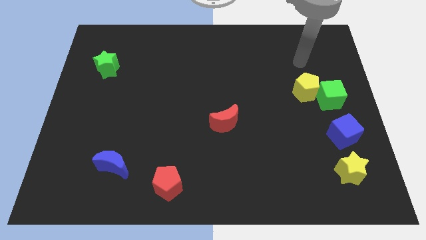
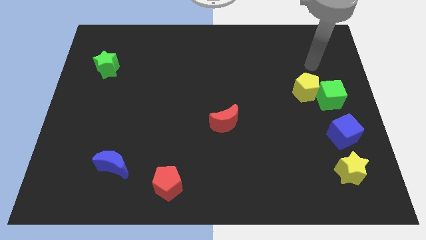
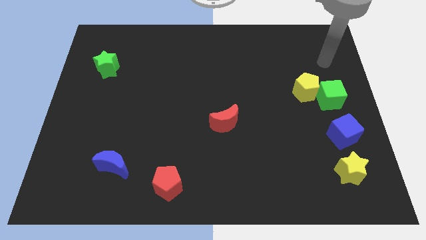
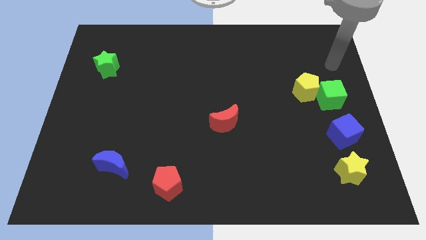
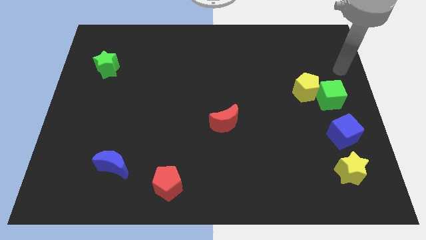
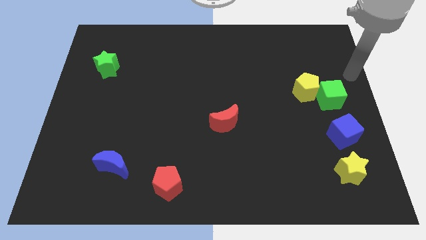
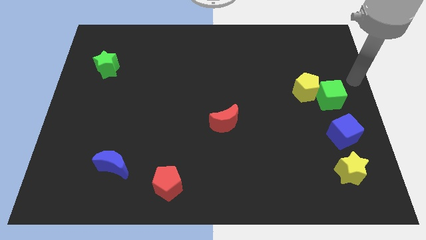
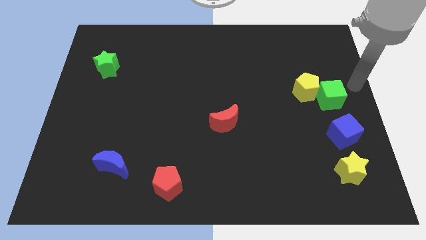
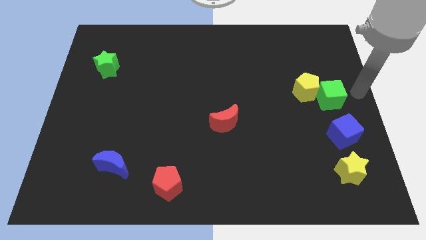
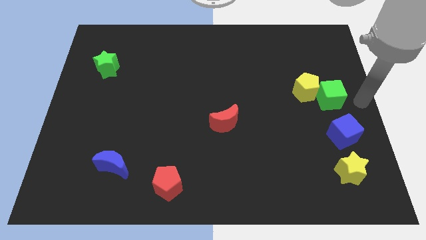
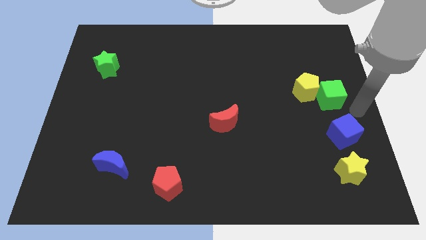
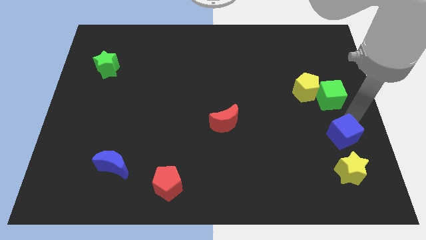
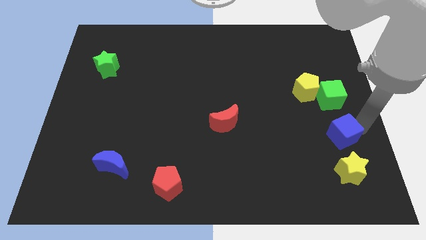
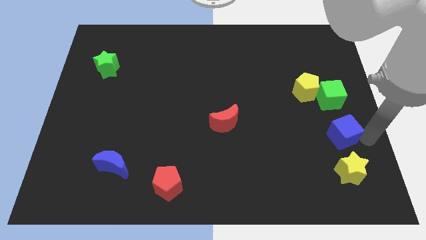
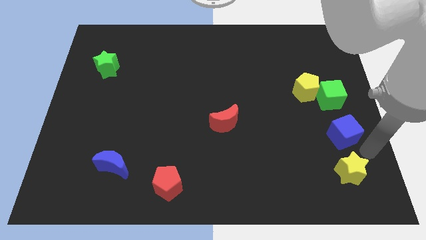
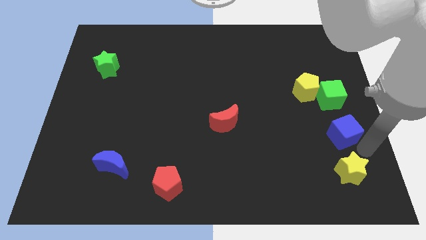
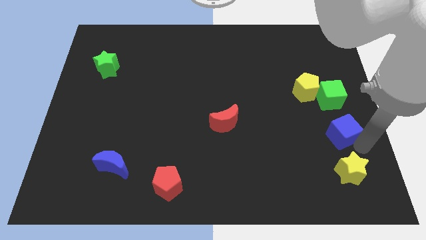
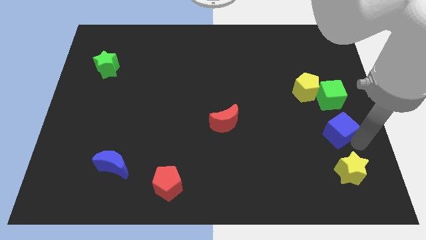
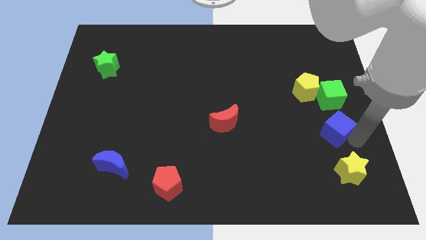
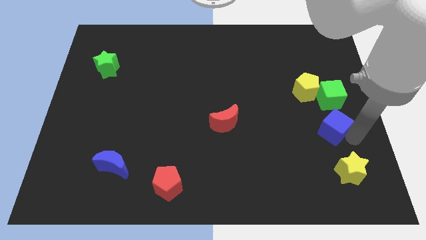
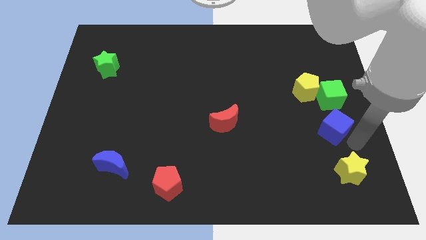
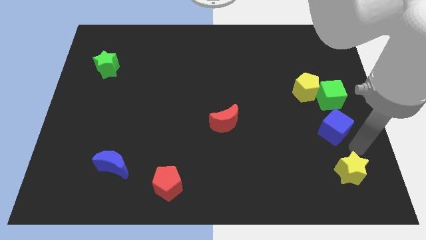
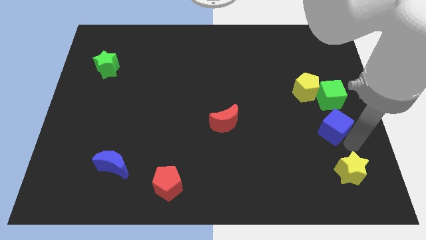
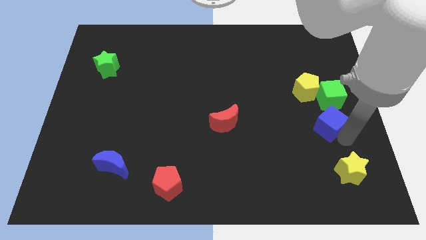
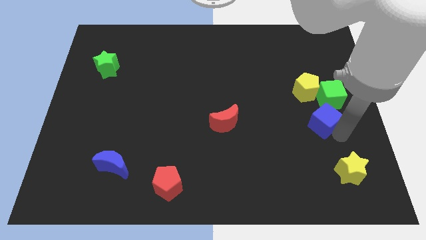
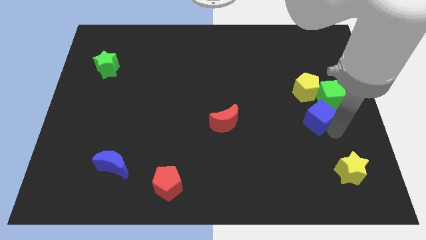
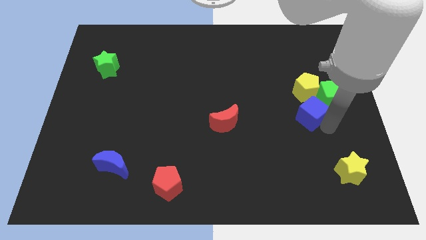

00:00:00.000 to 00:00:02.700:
slightly move the blue cube upwards and then to the left

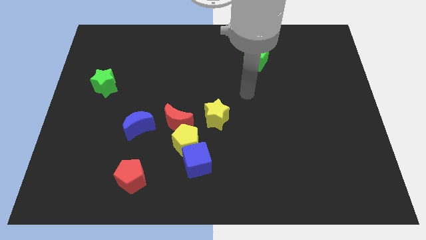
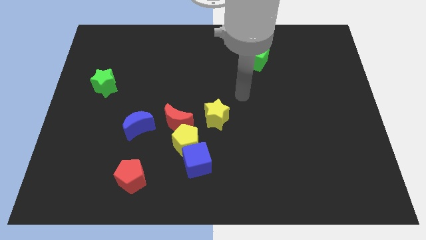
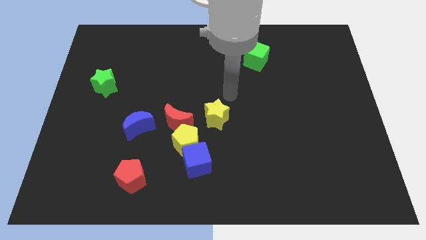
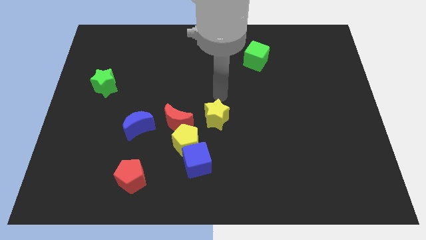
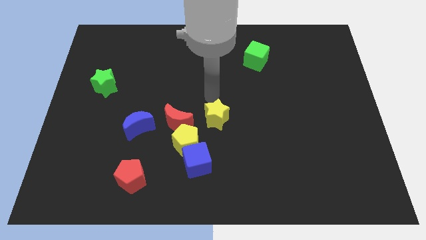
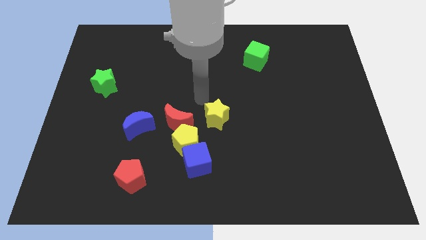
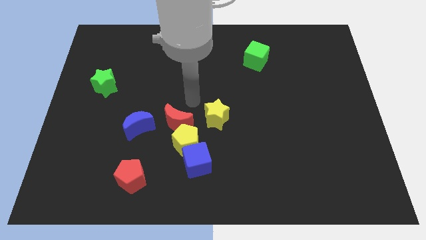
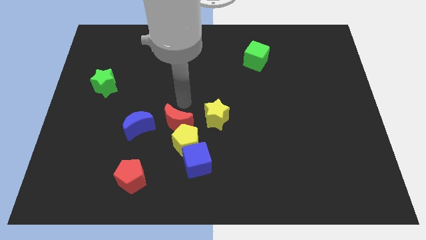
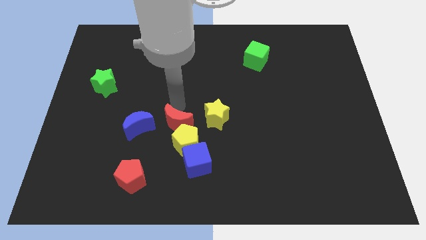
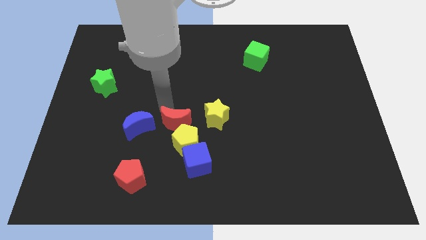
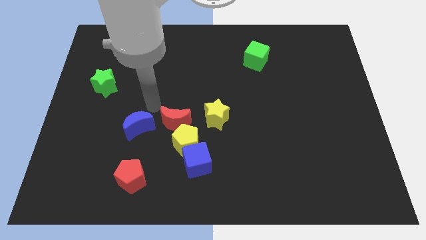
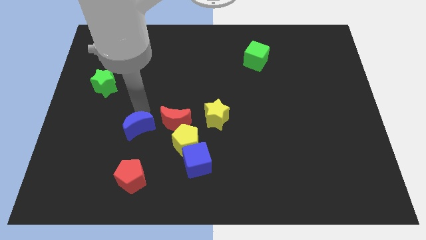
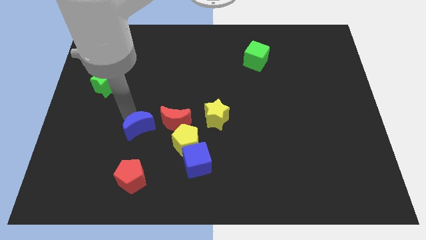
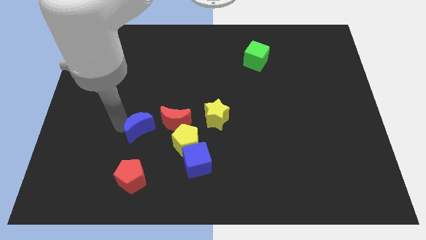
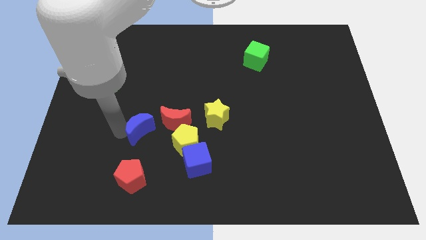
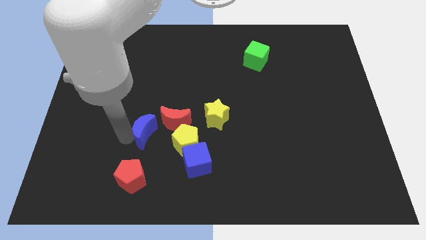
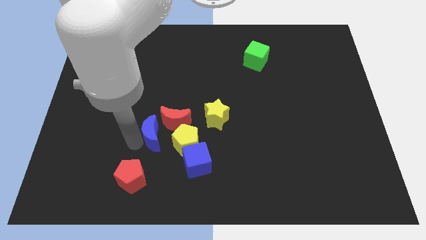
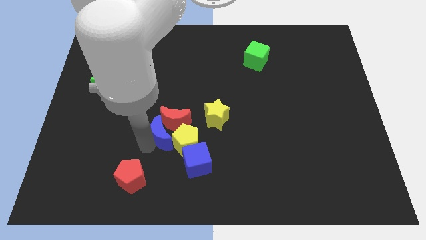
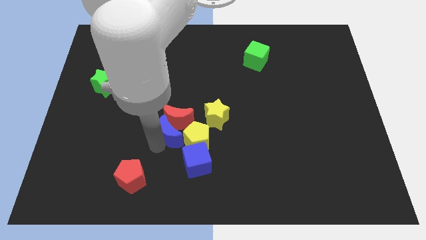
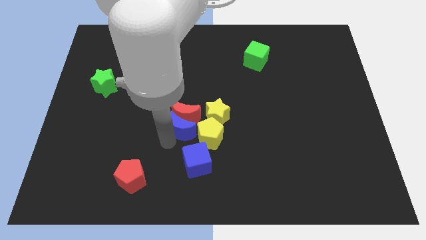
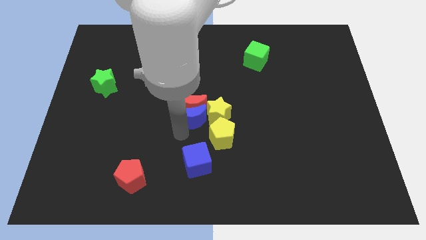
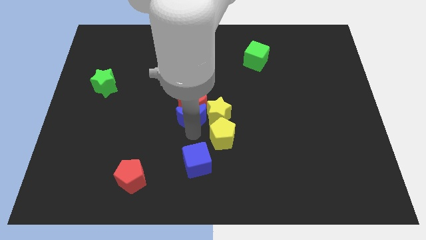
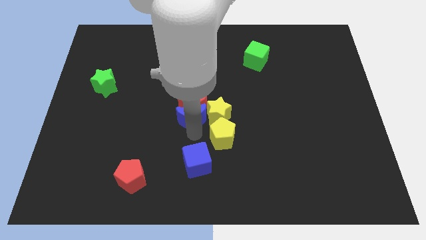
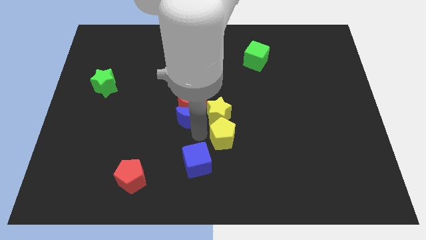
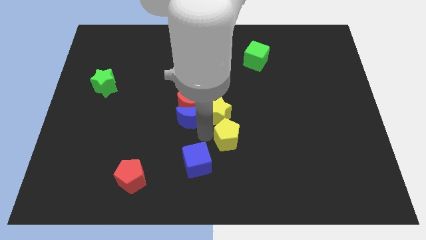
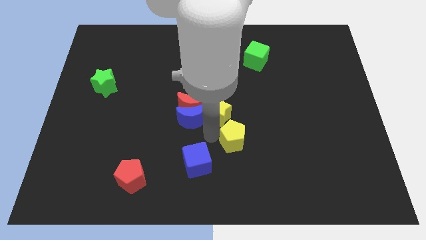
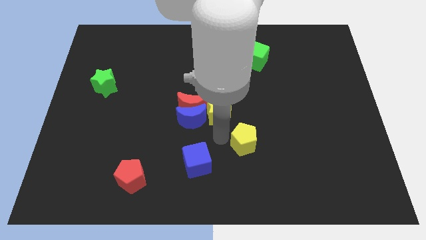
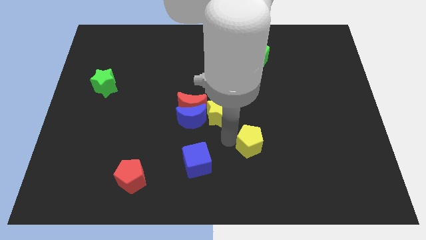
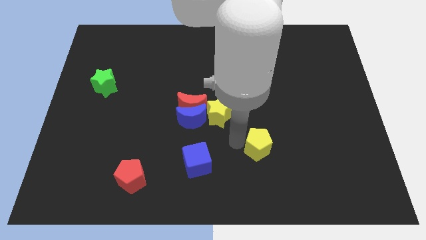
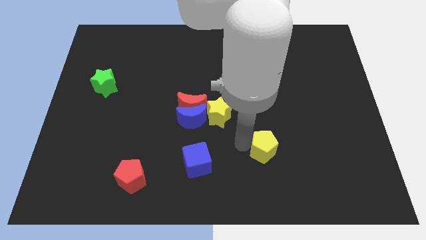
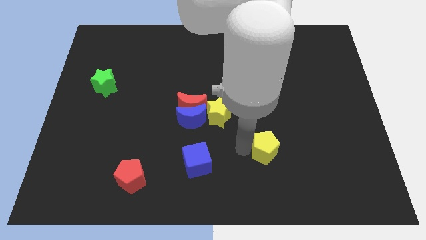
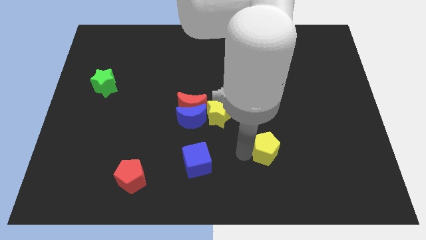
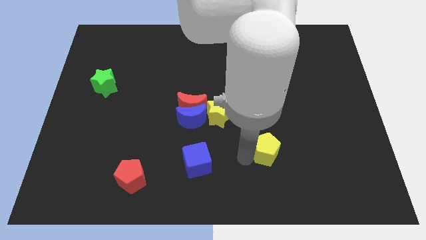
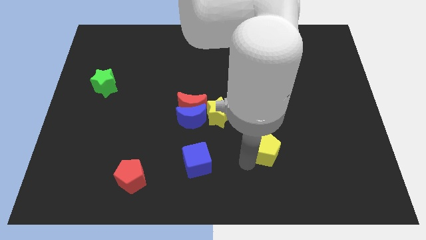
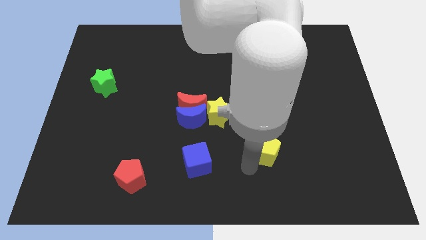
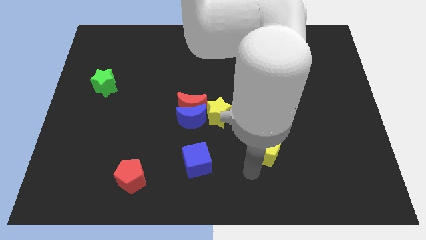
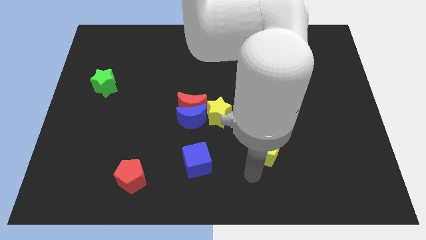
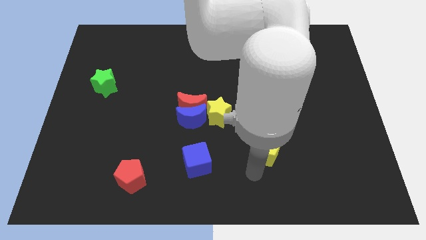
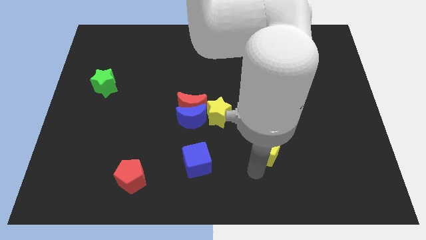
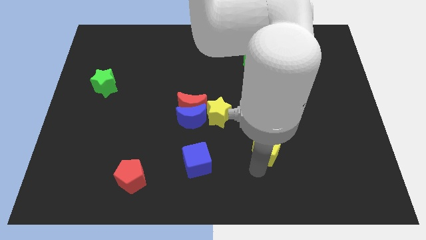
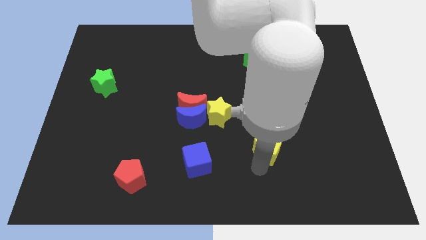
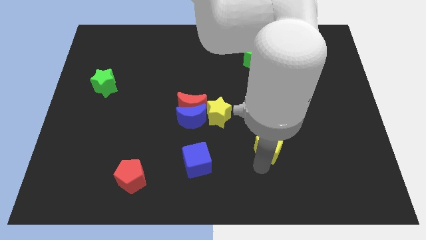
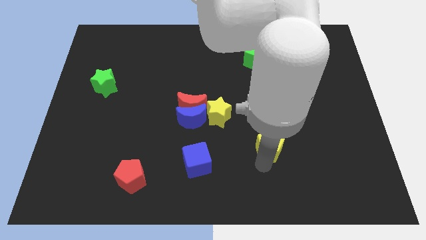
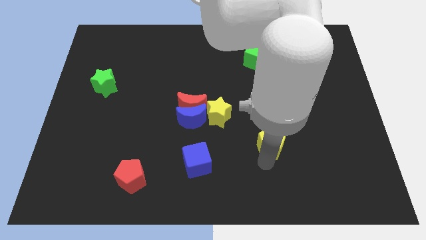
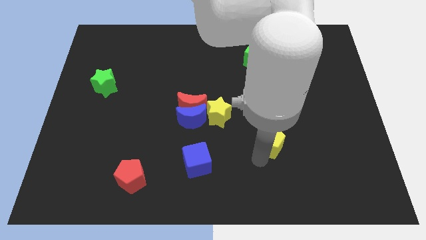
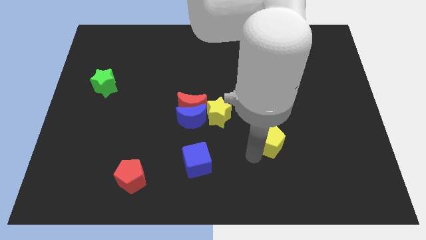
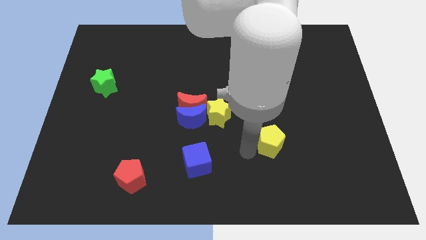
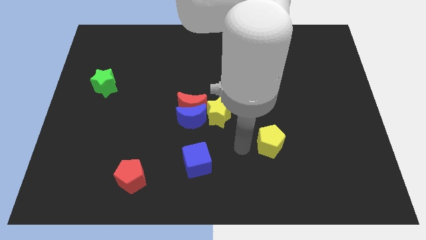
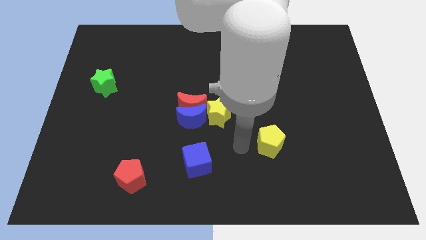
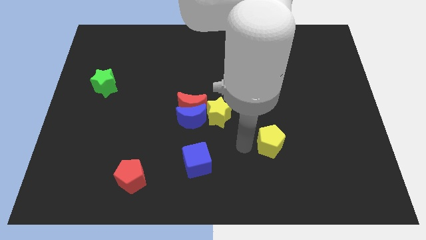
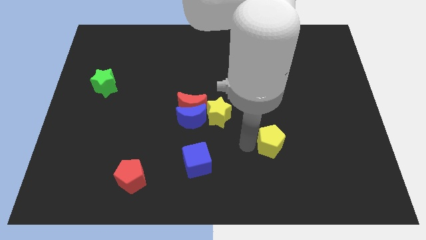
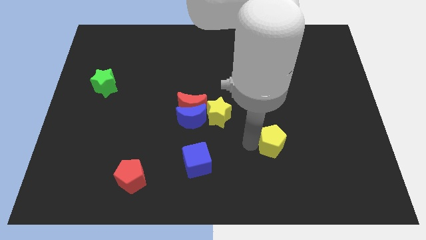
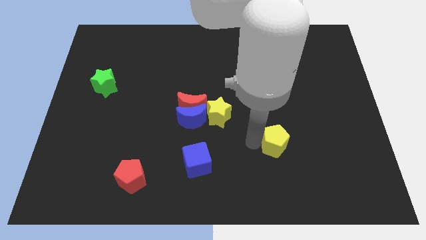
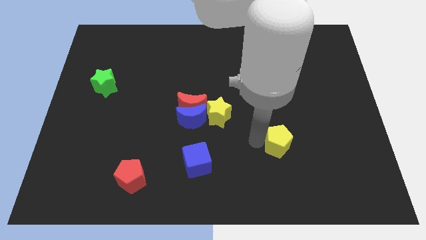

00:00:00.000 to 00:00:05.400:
move the yellow pentagon to the right
